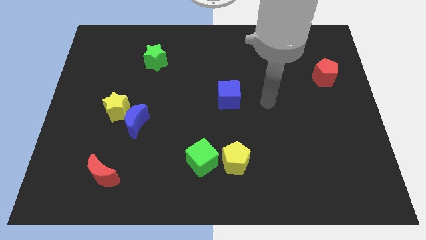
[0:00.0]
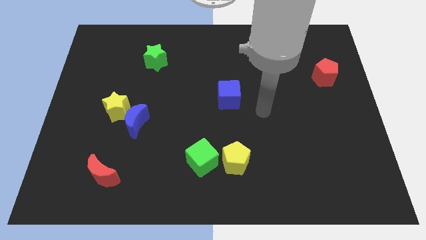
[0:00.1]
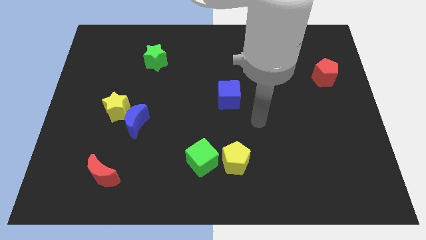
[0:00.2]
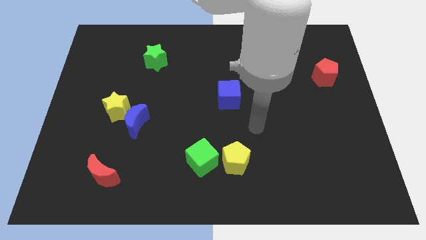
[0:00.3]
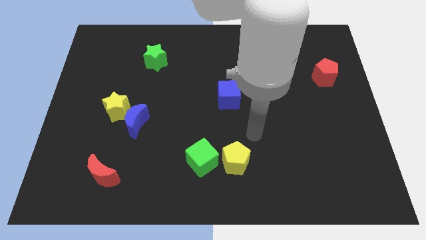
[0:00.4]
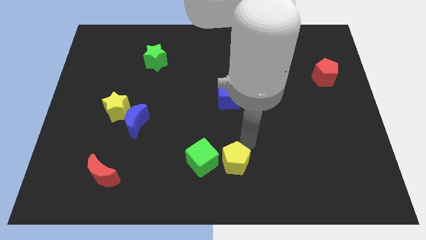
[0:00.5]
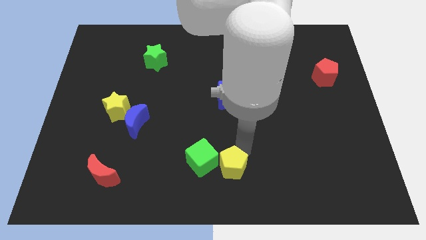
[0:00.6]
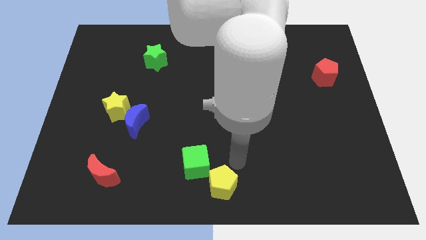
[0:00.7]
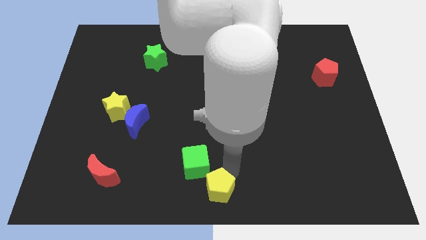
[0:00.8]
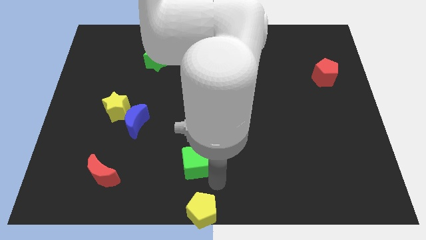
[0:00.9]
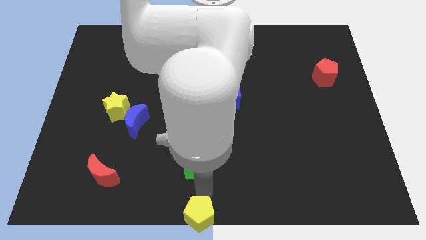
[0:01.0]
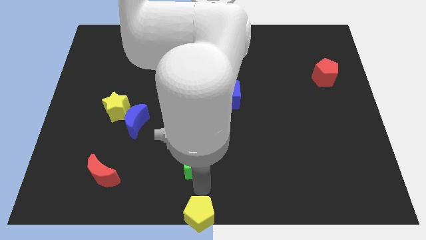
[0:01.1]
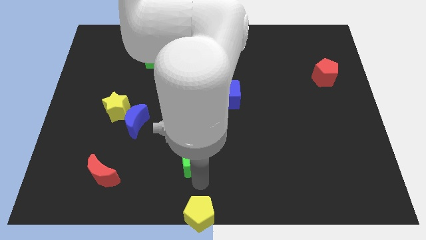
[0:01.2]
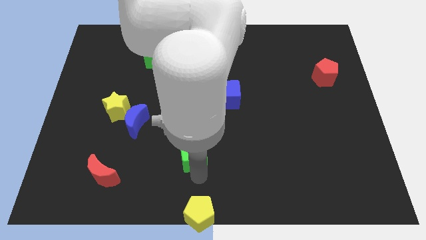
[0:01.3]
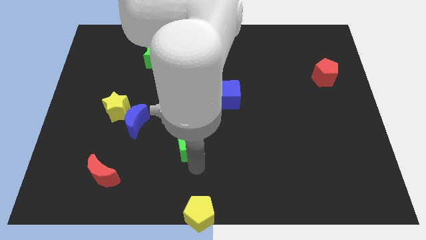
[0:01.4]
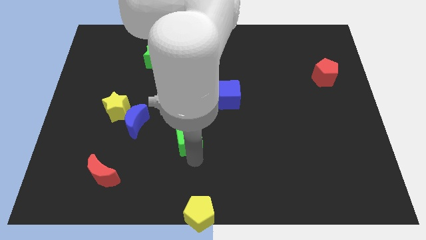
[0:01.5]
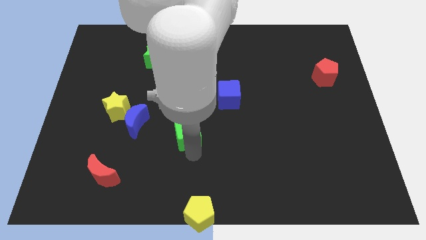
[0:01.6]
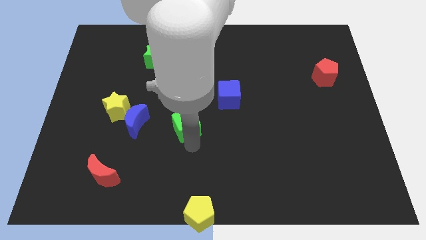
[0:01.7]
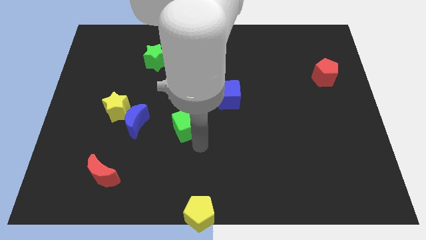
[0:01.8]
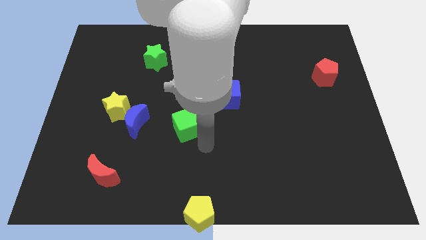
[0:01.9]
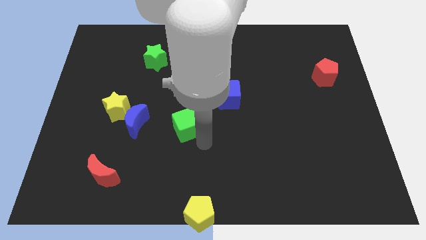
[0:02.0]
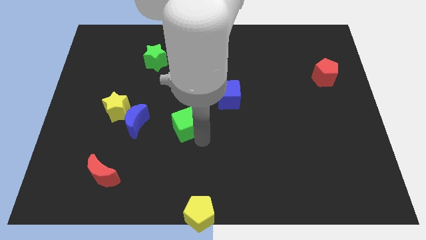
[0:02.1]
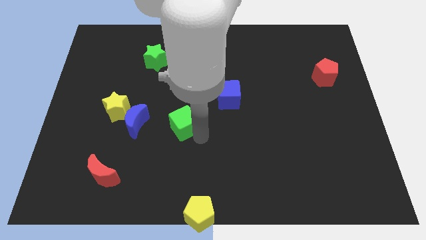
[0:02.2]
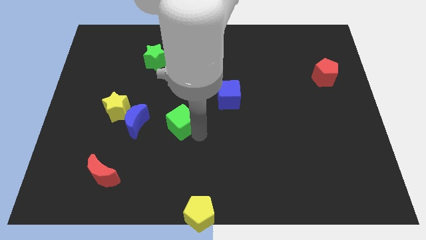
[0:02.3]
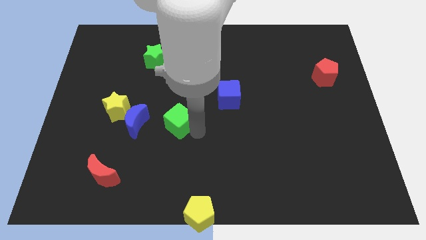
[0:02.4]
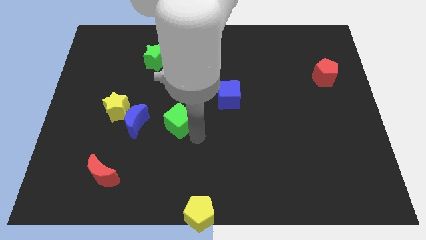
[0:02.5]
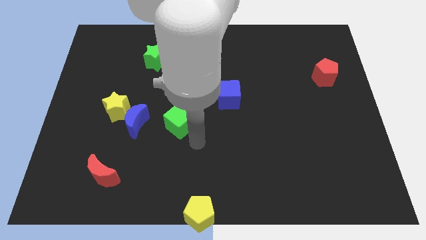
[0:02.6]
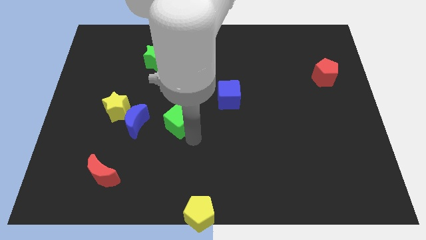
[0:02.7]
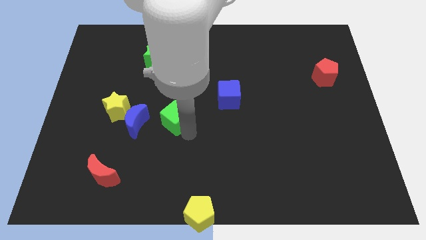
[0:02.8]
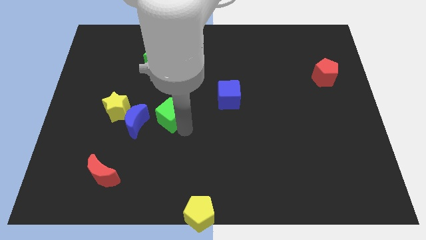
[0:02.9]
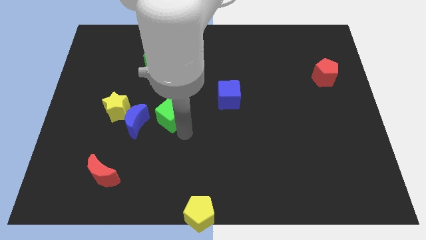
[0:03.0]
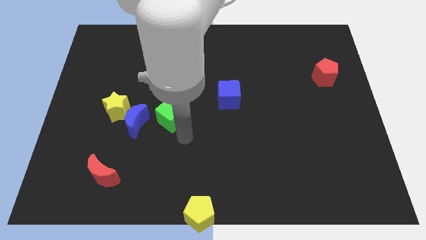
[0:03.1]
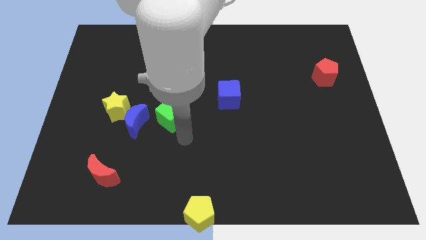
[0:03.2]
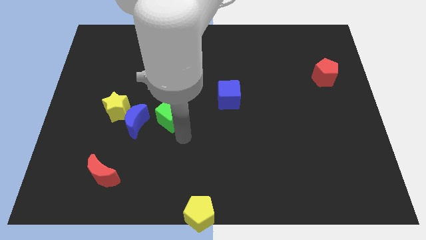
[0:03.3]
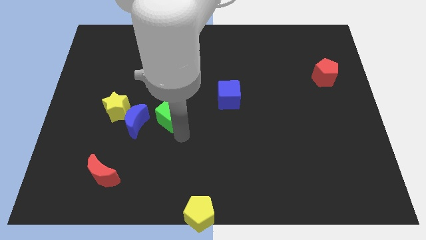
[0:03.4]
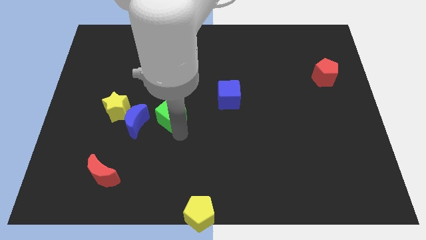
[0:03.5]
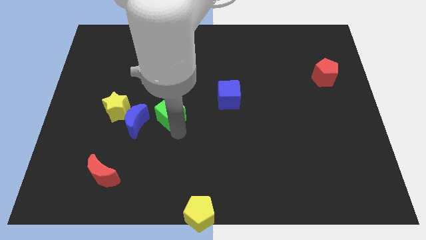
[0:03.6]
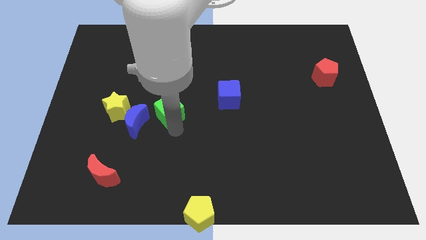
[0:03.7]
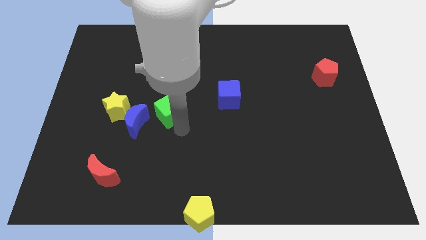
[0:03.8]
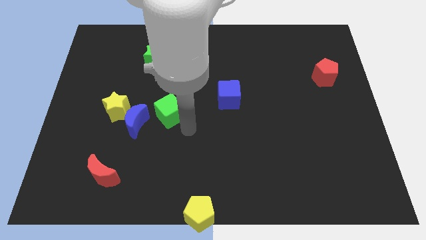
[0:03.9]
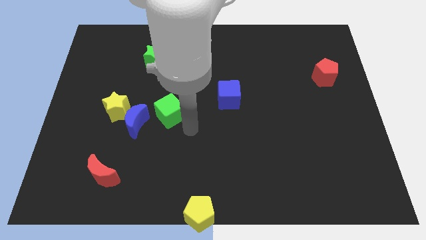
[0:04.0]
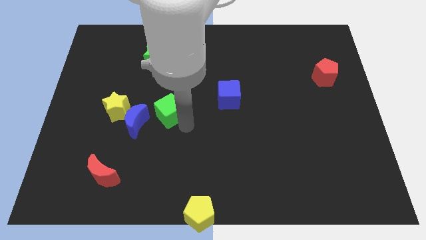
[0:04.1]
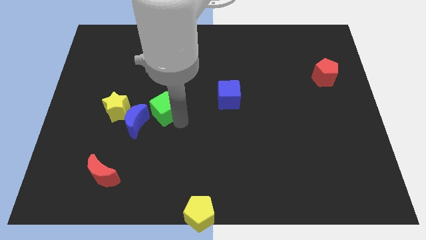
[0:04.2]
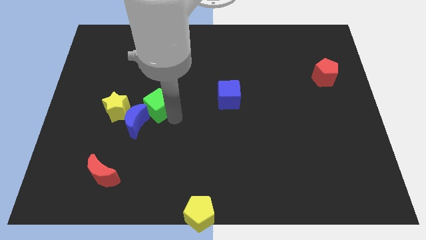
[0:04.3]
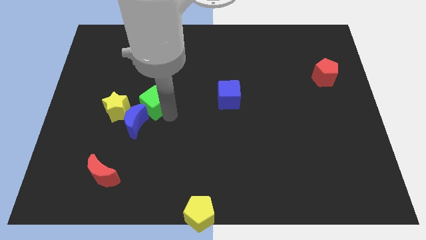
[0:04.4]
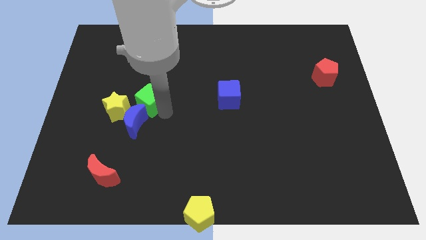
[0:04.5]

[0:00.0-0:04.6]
move the green cube up and left diagonally

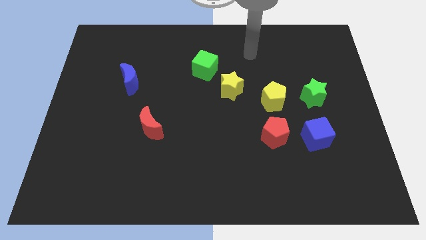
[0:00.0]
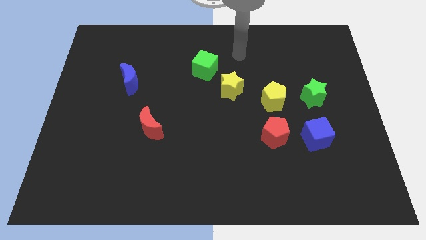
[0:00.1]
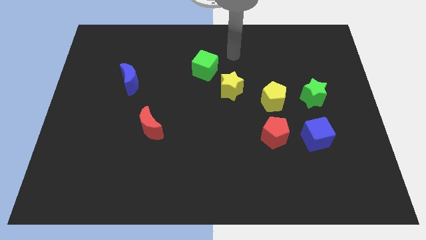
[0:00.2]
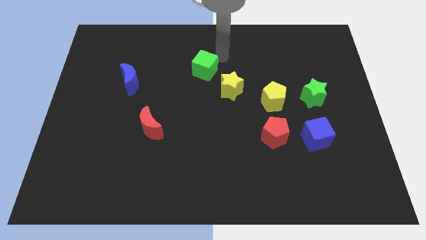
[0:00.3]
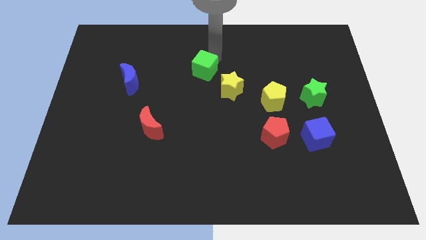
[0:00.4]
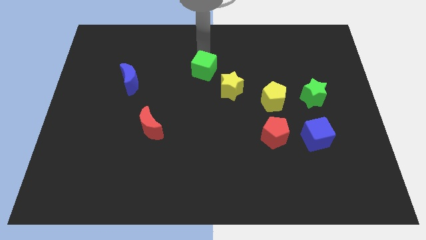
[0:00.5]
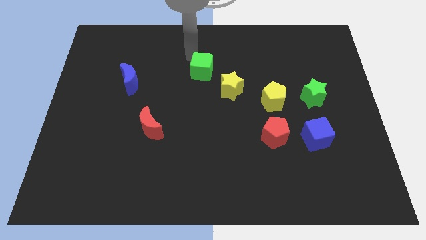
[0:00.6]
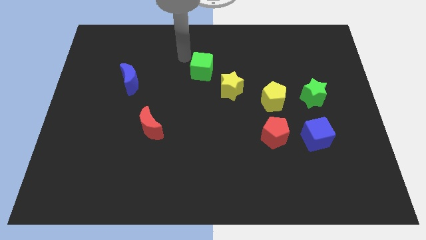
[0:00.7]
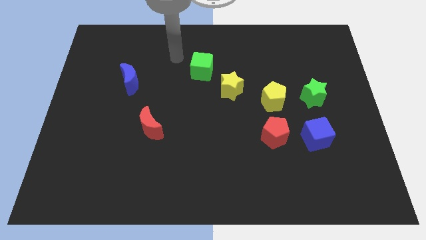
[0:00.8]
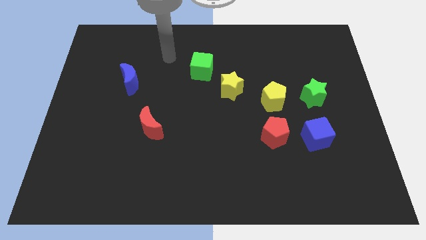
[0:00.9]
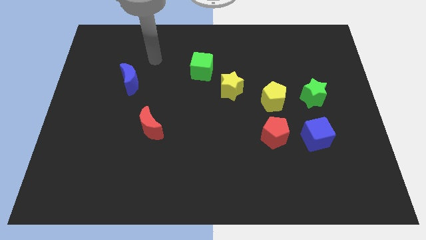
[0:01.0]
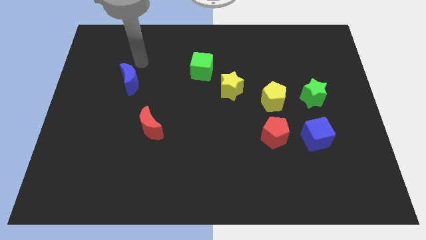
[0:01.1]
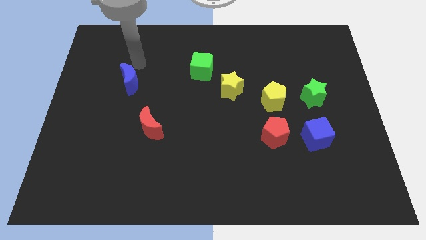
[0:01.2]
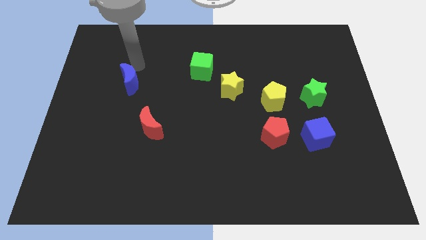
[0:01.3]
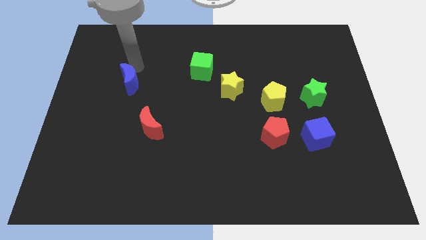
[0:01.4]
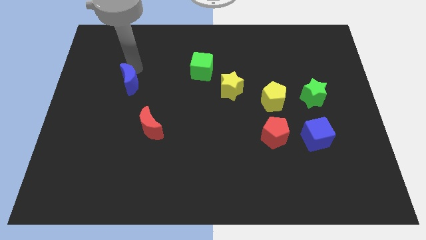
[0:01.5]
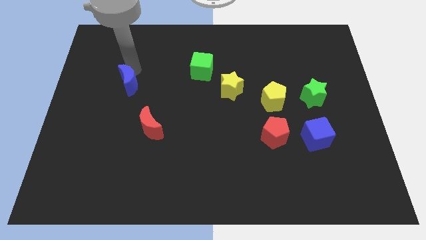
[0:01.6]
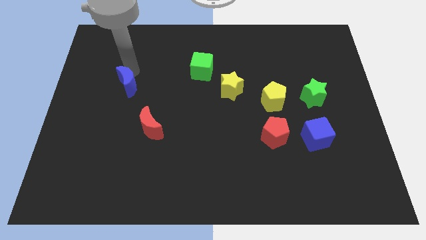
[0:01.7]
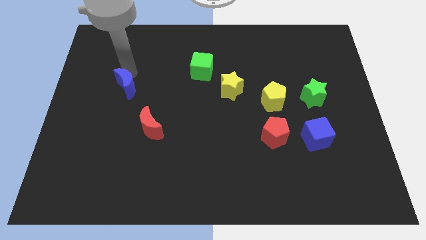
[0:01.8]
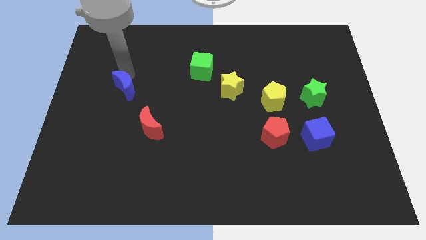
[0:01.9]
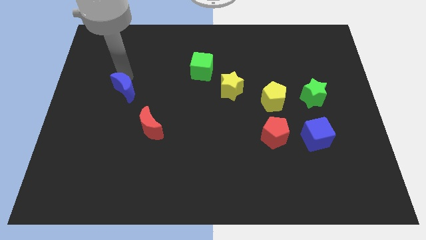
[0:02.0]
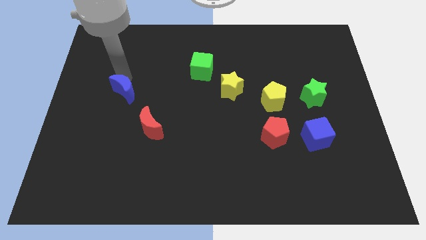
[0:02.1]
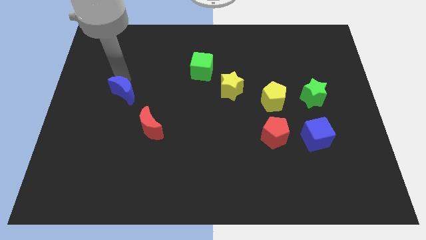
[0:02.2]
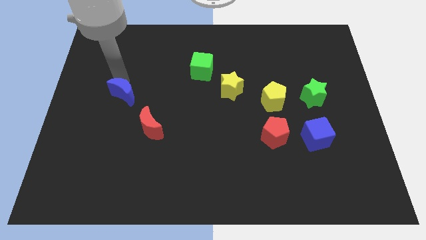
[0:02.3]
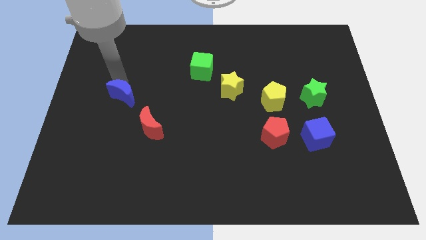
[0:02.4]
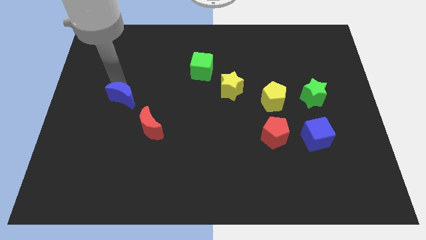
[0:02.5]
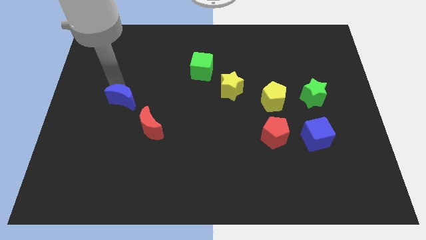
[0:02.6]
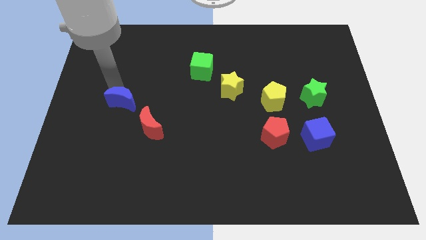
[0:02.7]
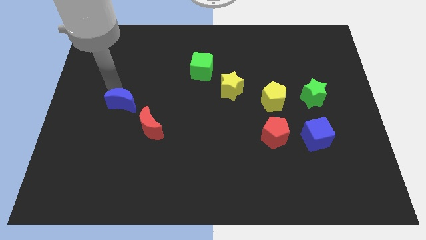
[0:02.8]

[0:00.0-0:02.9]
slide the blue moon a bit down

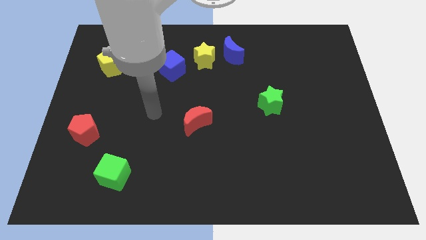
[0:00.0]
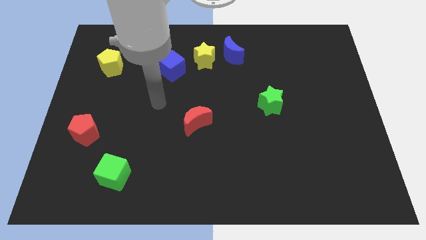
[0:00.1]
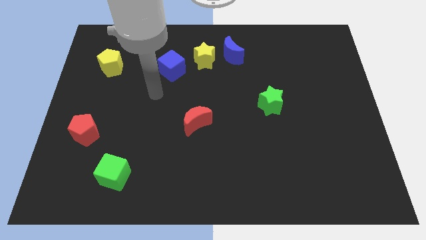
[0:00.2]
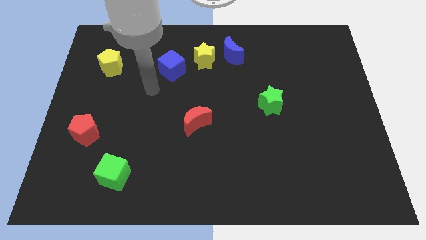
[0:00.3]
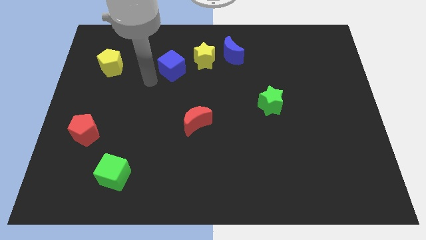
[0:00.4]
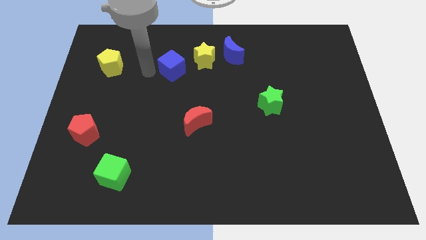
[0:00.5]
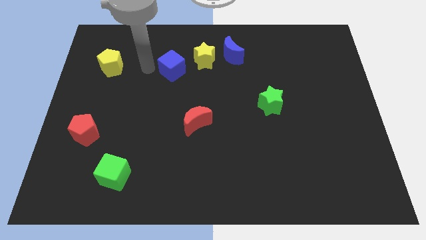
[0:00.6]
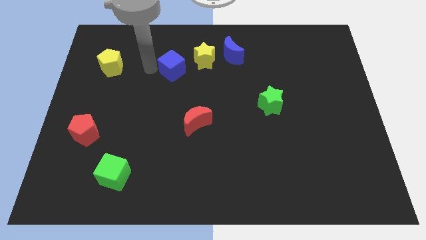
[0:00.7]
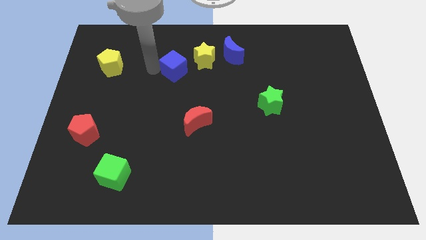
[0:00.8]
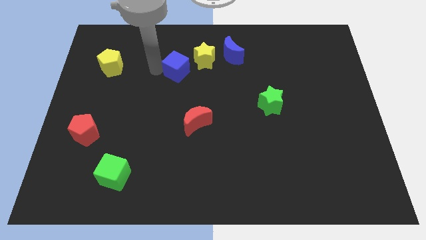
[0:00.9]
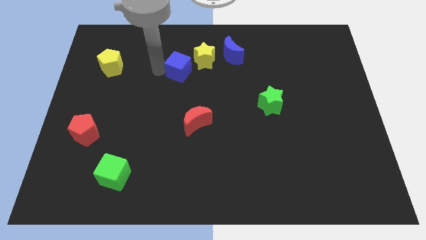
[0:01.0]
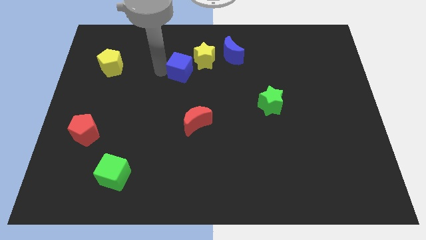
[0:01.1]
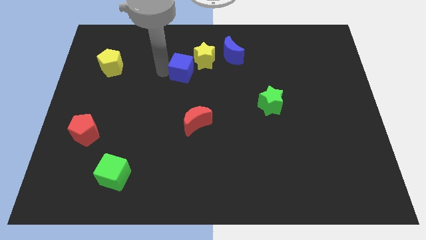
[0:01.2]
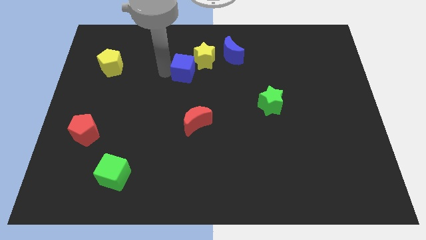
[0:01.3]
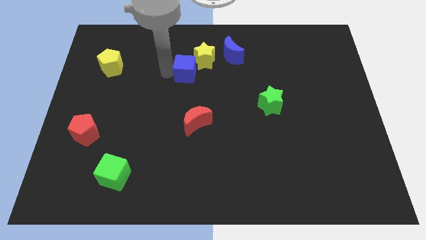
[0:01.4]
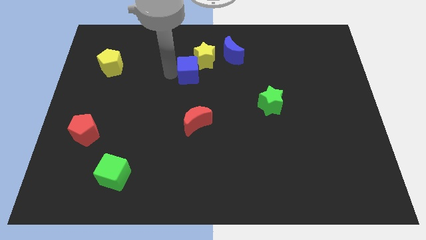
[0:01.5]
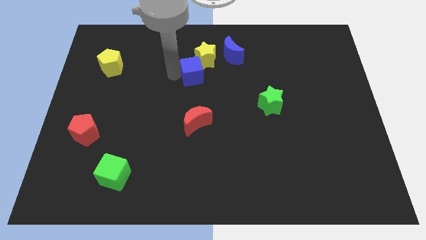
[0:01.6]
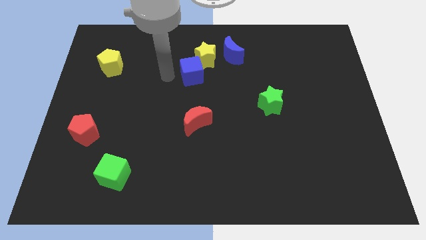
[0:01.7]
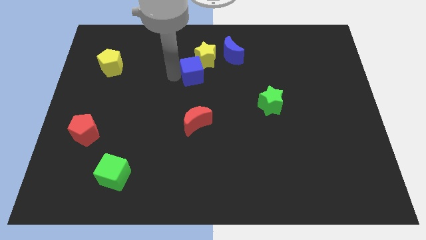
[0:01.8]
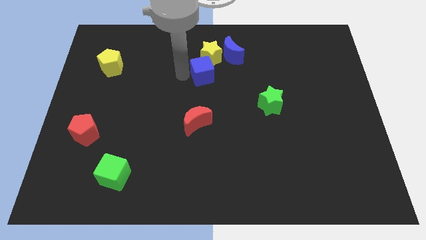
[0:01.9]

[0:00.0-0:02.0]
slightly push the blue cube to the right
